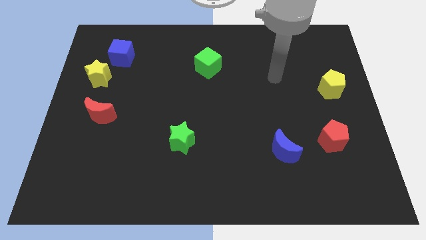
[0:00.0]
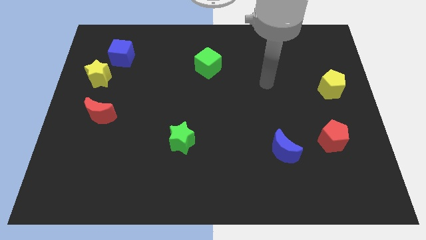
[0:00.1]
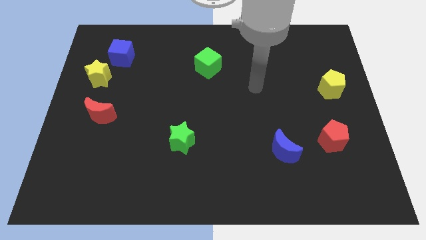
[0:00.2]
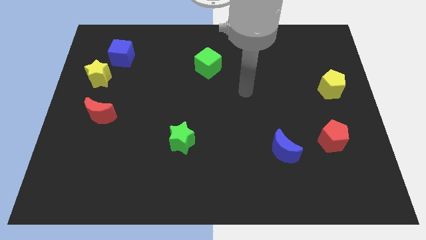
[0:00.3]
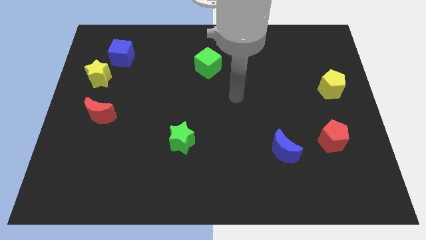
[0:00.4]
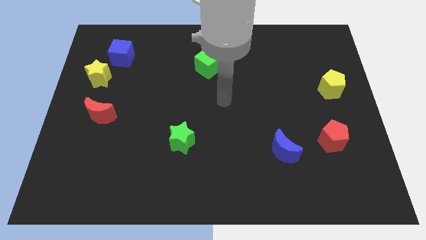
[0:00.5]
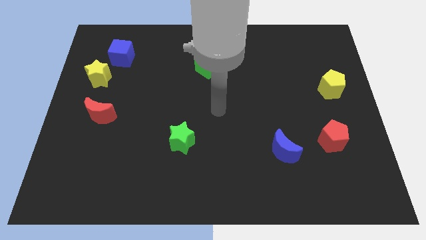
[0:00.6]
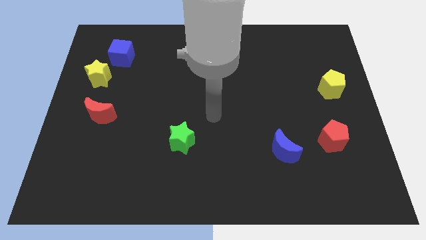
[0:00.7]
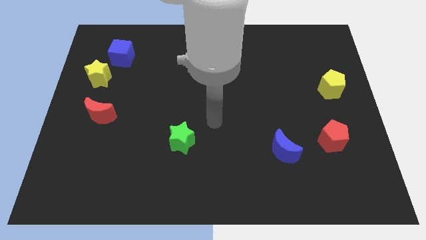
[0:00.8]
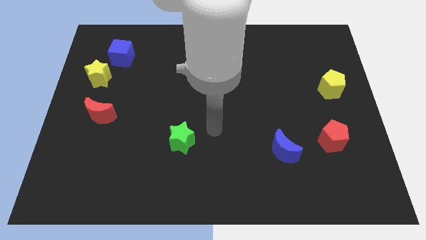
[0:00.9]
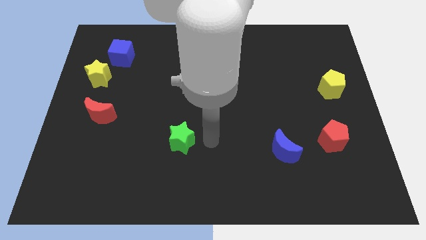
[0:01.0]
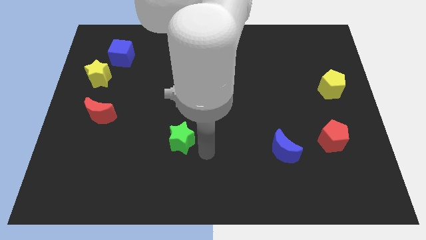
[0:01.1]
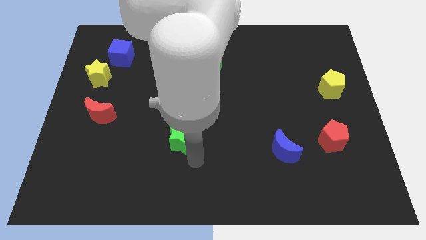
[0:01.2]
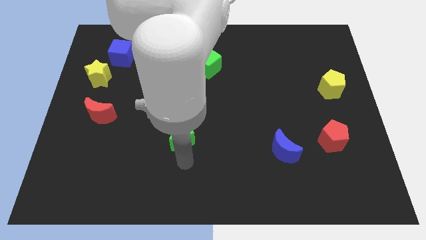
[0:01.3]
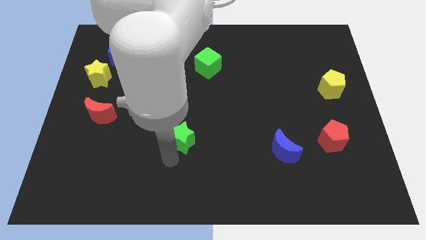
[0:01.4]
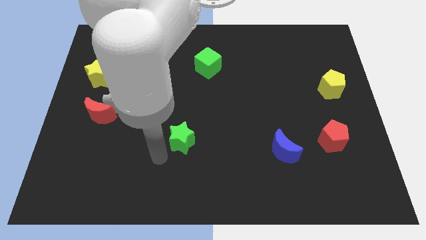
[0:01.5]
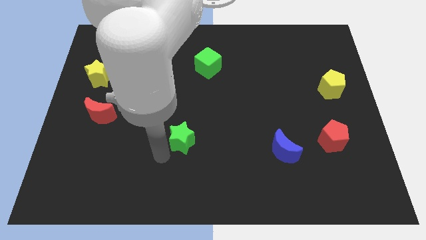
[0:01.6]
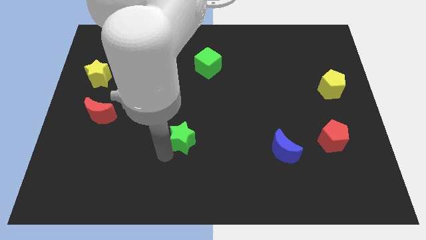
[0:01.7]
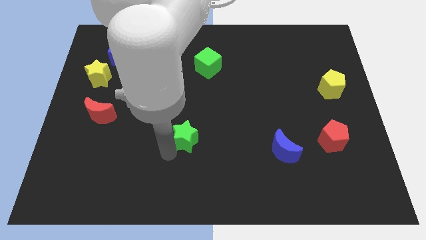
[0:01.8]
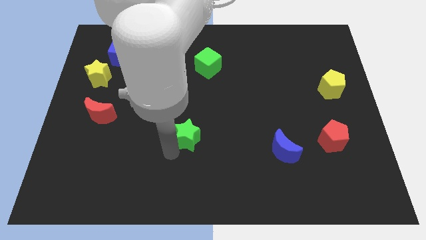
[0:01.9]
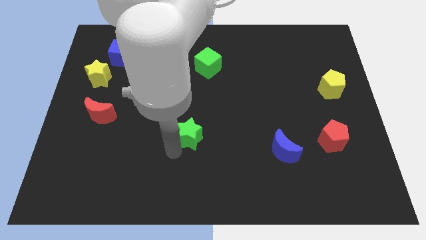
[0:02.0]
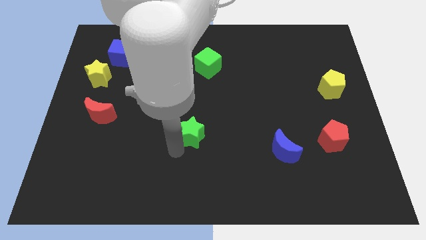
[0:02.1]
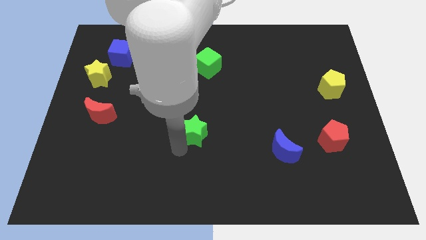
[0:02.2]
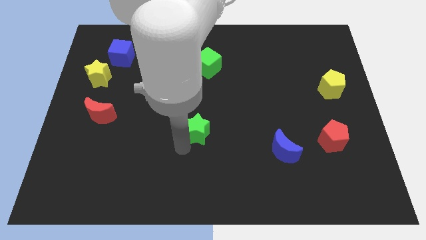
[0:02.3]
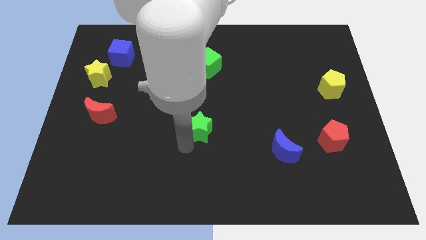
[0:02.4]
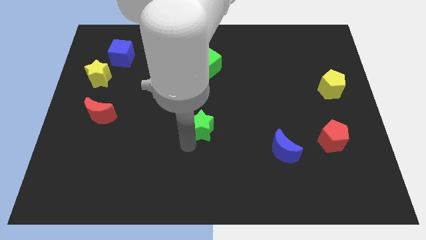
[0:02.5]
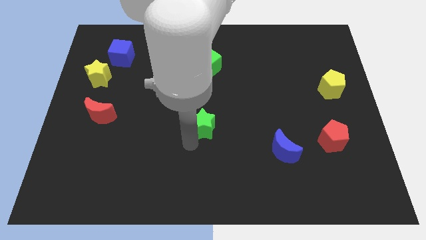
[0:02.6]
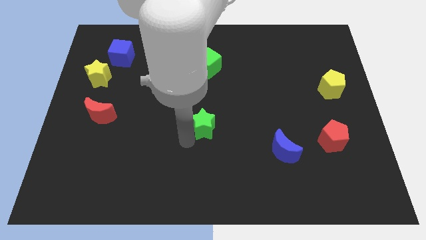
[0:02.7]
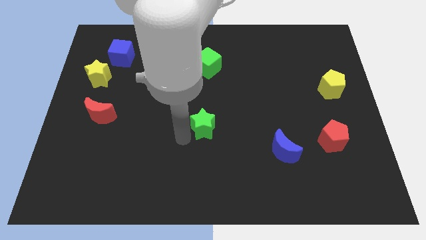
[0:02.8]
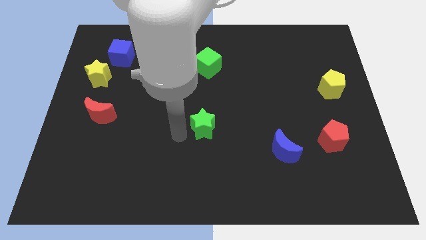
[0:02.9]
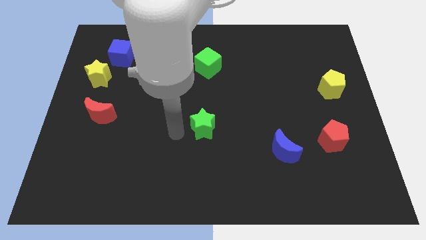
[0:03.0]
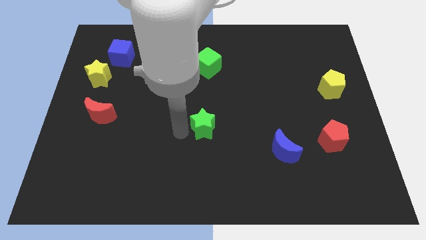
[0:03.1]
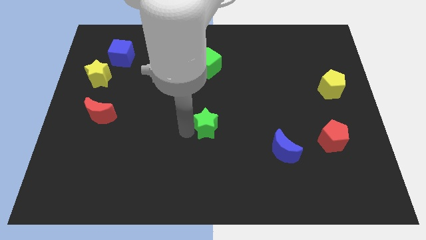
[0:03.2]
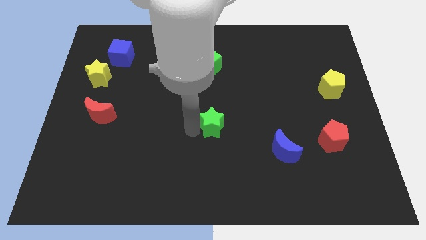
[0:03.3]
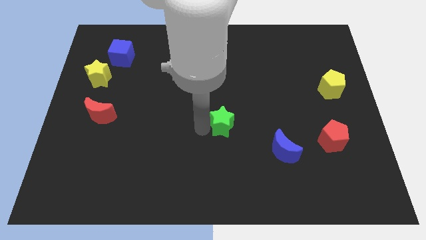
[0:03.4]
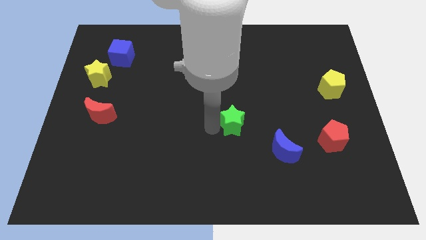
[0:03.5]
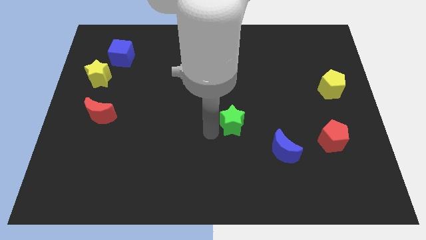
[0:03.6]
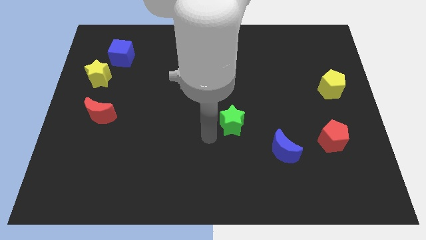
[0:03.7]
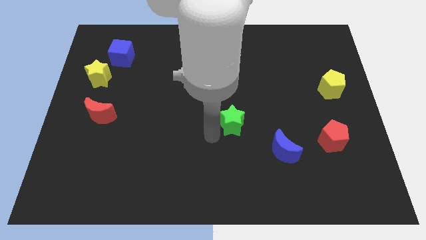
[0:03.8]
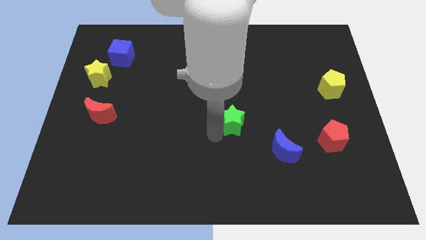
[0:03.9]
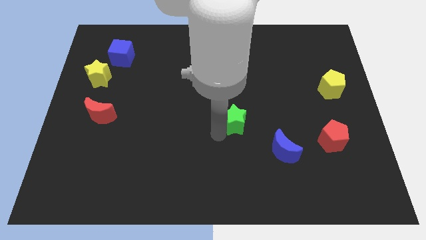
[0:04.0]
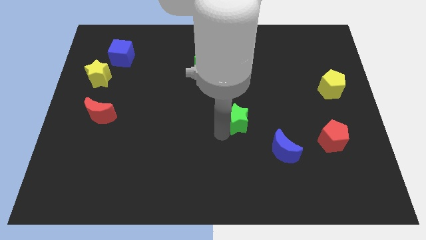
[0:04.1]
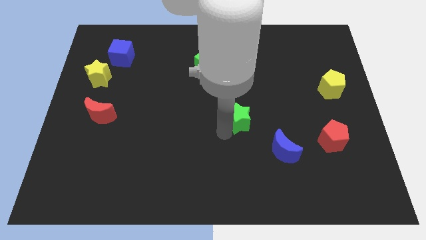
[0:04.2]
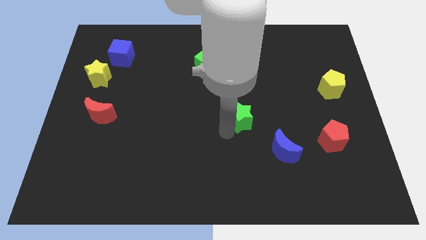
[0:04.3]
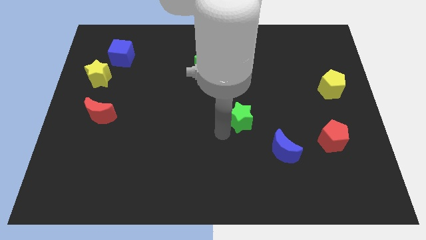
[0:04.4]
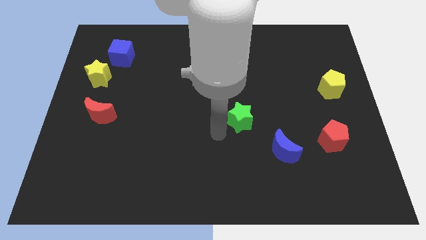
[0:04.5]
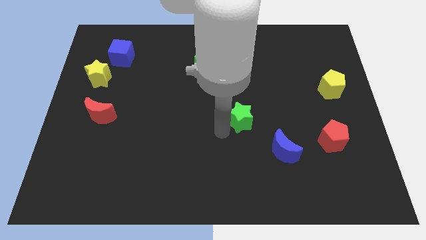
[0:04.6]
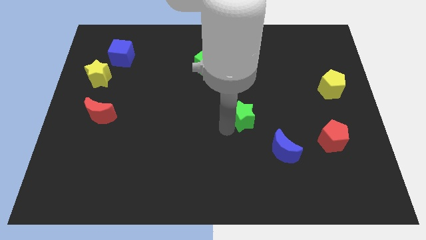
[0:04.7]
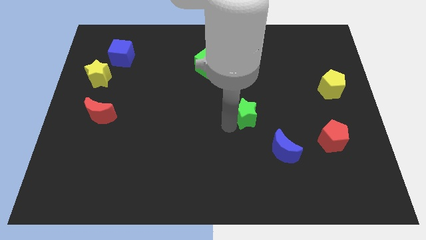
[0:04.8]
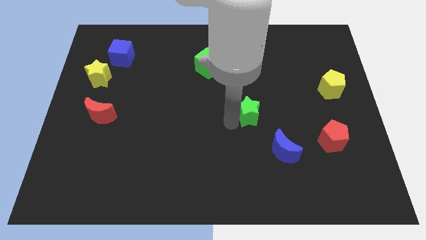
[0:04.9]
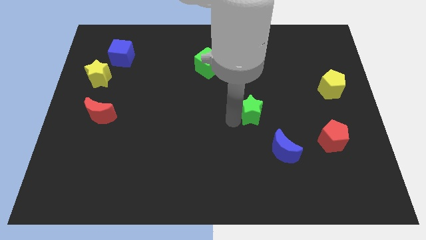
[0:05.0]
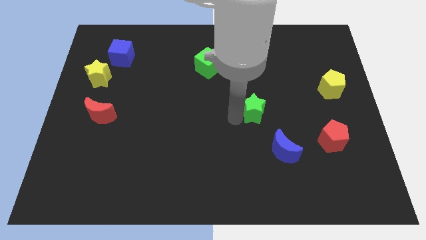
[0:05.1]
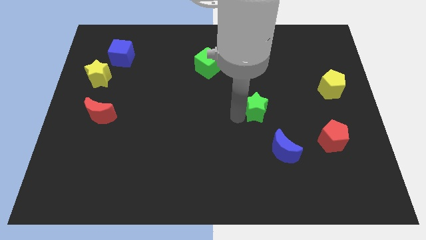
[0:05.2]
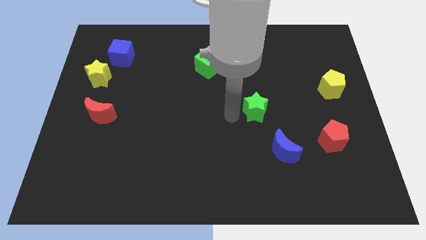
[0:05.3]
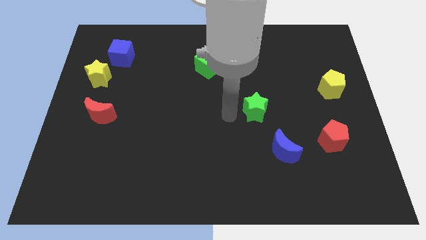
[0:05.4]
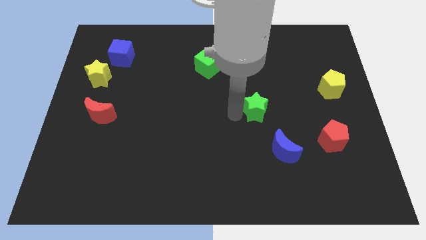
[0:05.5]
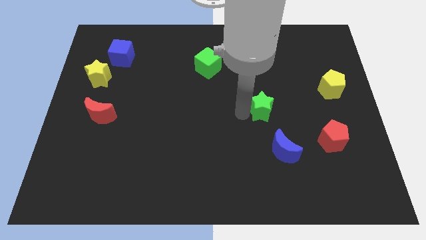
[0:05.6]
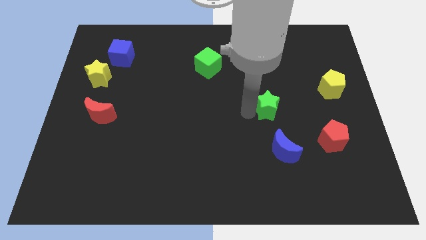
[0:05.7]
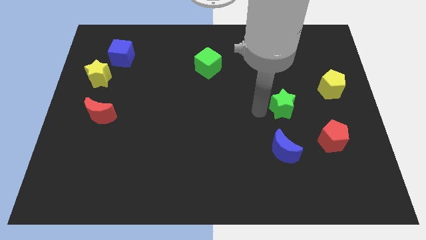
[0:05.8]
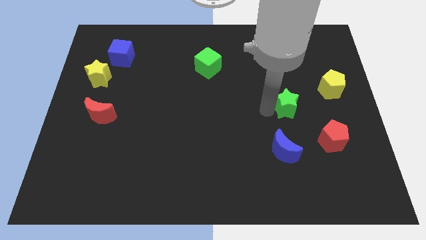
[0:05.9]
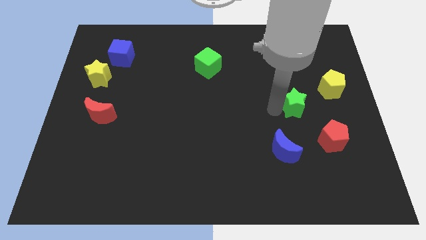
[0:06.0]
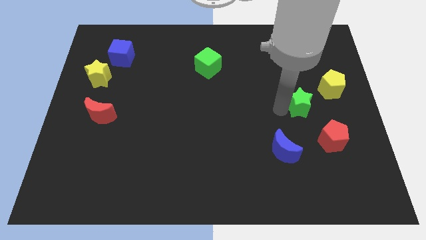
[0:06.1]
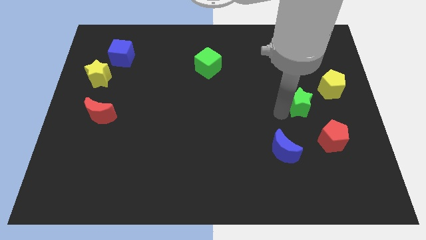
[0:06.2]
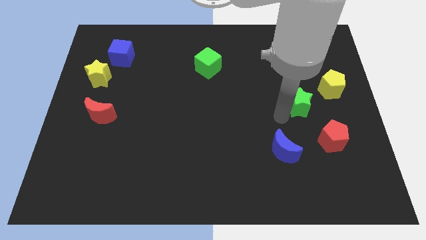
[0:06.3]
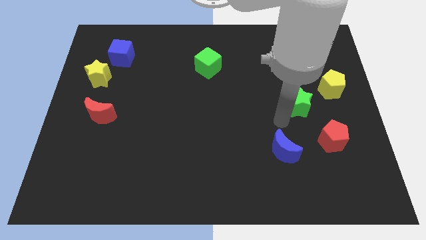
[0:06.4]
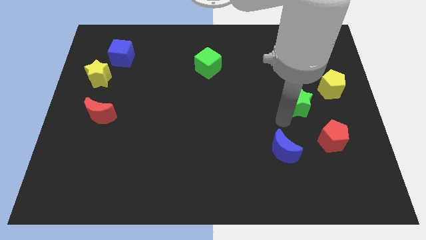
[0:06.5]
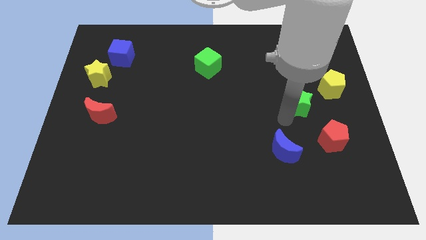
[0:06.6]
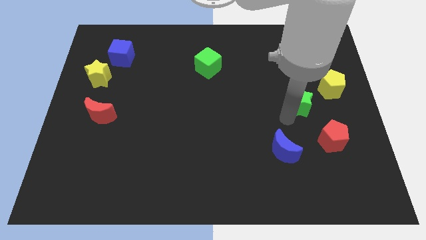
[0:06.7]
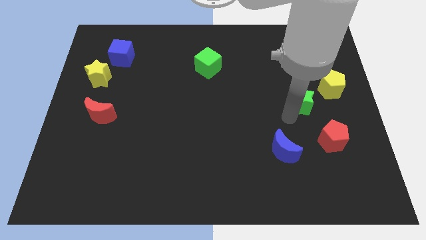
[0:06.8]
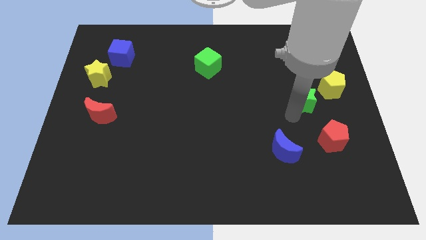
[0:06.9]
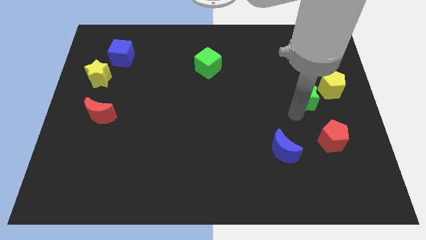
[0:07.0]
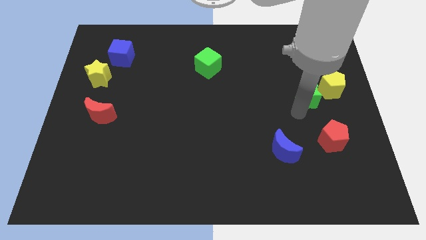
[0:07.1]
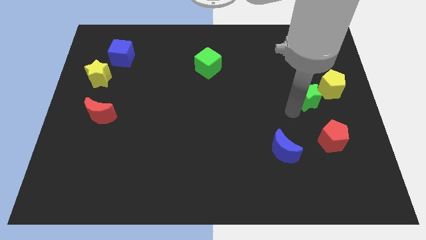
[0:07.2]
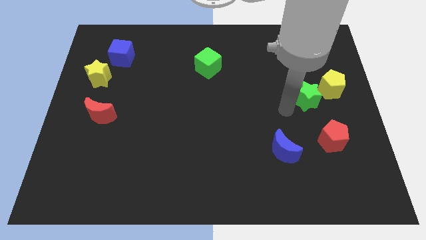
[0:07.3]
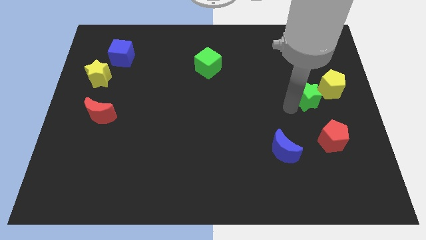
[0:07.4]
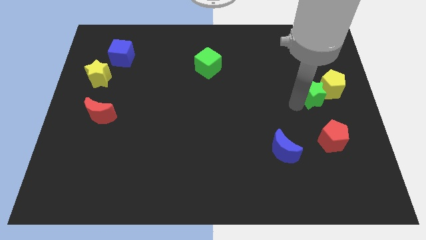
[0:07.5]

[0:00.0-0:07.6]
push the green star towards the yellow pentagon
